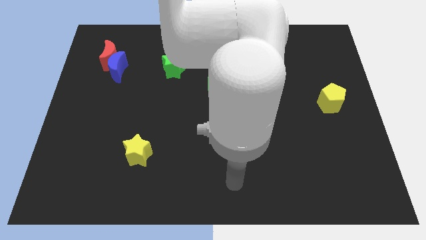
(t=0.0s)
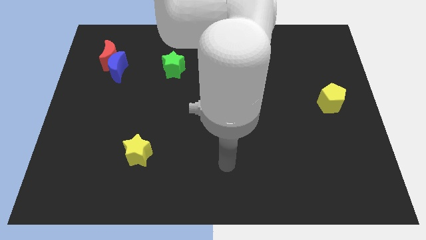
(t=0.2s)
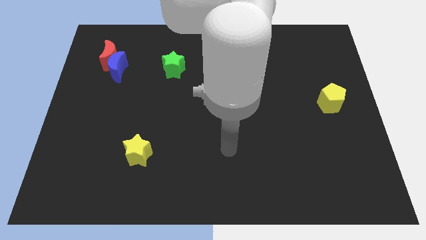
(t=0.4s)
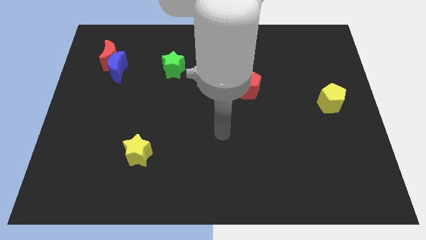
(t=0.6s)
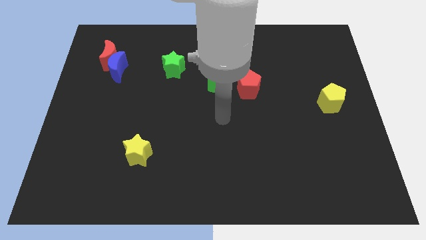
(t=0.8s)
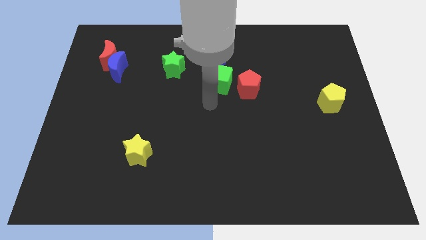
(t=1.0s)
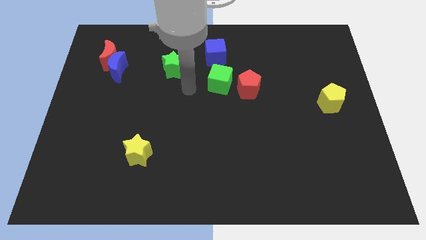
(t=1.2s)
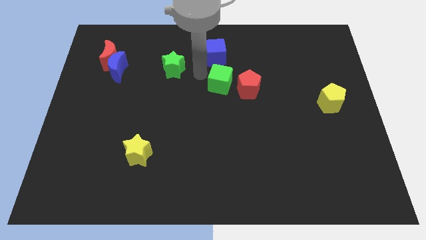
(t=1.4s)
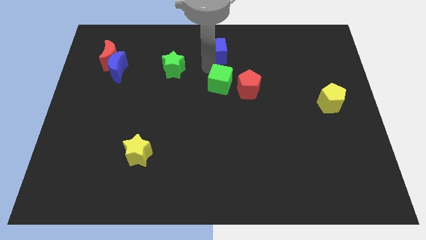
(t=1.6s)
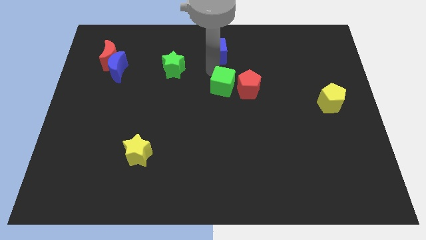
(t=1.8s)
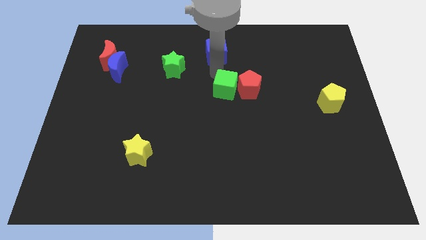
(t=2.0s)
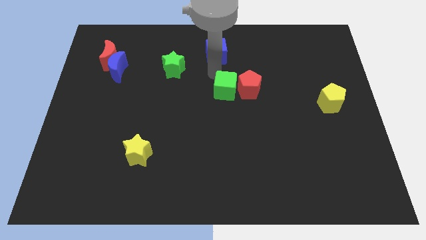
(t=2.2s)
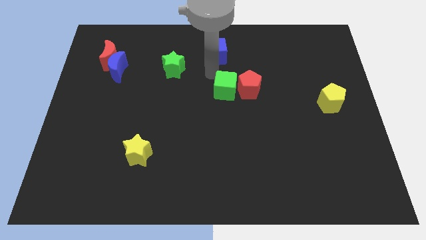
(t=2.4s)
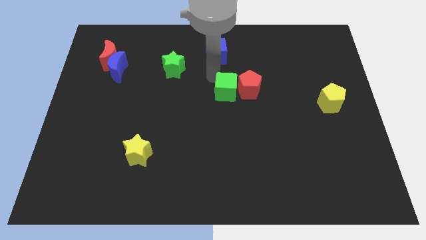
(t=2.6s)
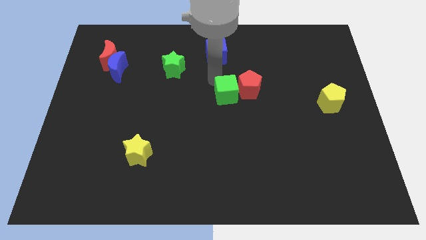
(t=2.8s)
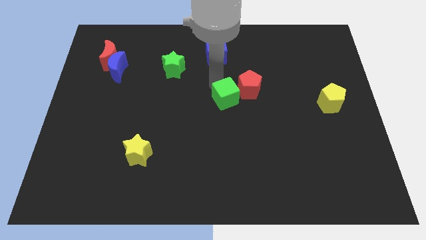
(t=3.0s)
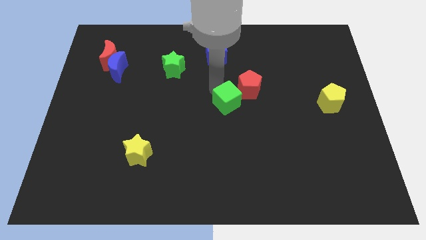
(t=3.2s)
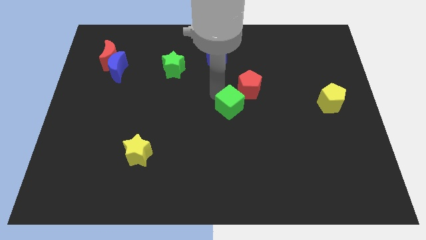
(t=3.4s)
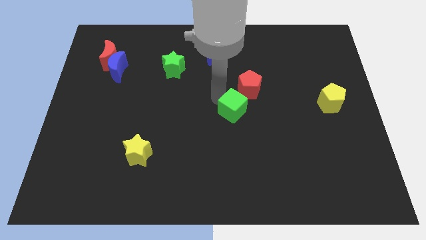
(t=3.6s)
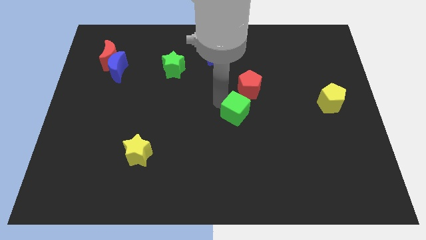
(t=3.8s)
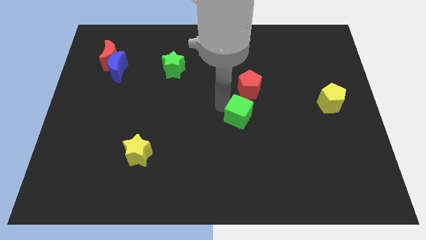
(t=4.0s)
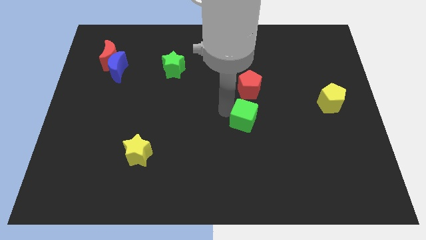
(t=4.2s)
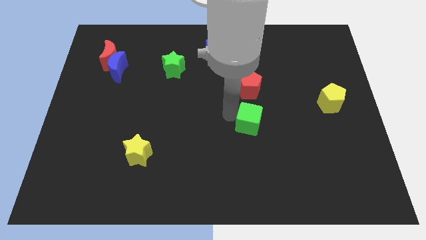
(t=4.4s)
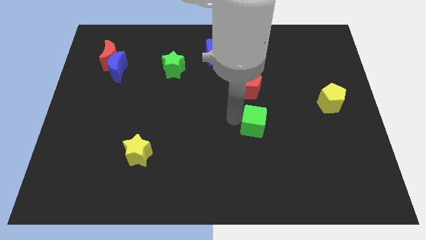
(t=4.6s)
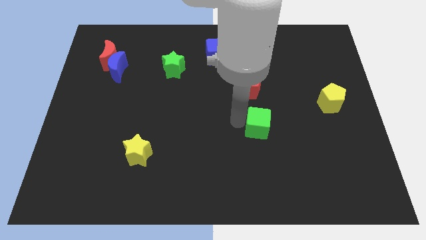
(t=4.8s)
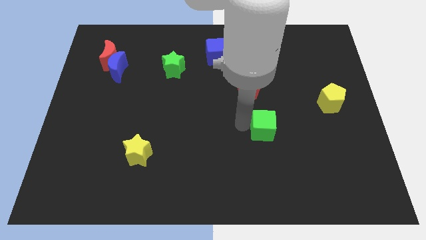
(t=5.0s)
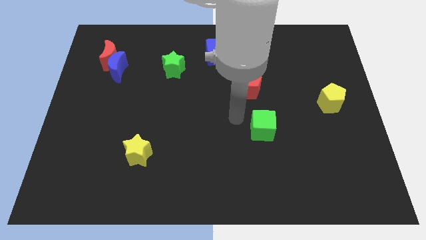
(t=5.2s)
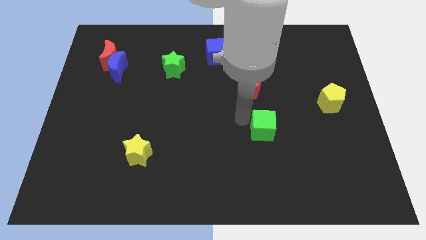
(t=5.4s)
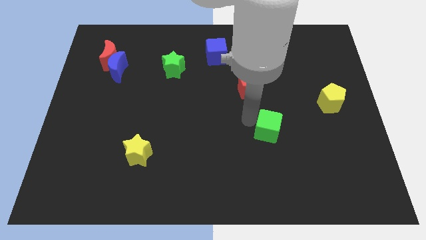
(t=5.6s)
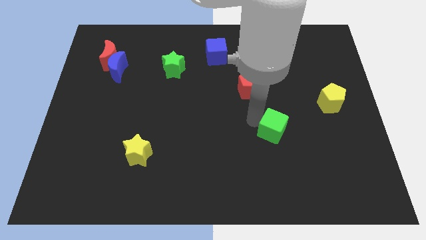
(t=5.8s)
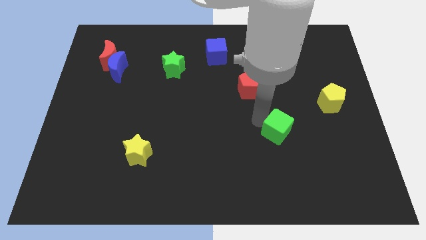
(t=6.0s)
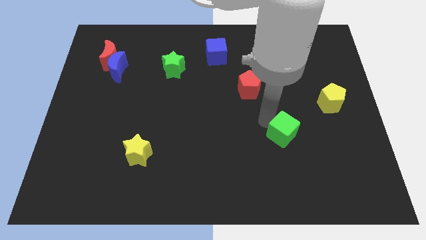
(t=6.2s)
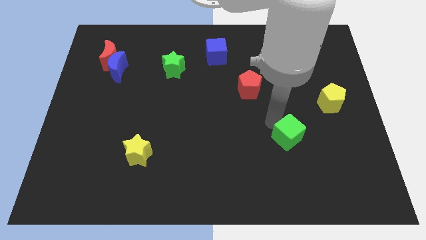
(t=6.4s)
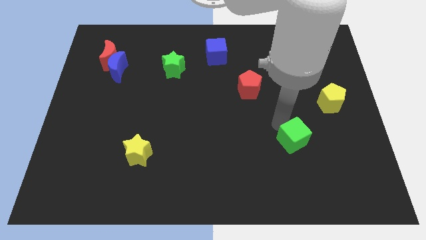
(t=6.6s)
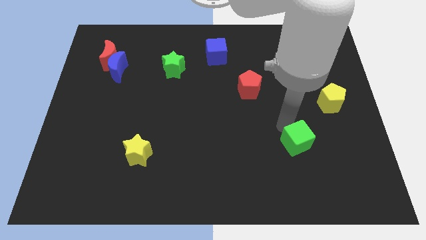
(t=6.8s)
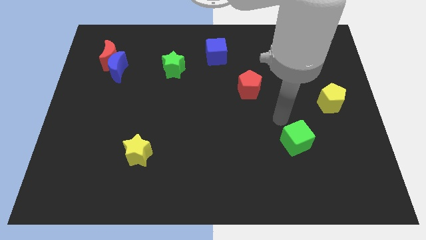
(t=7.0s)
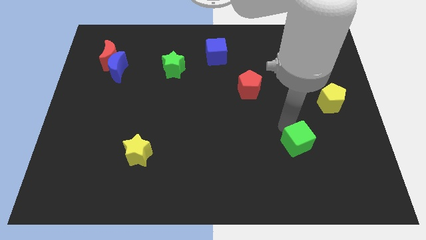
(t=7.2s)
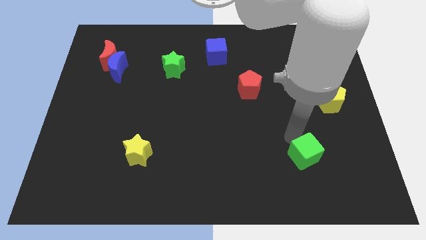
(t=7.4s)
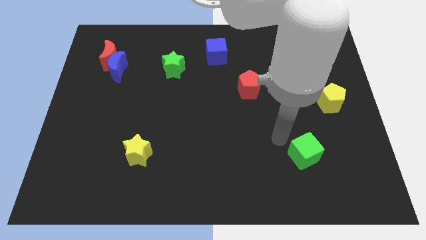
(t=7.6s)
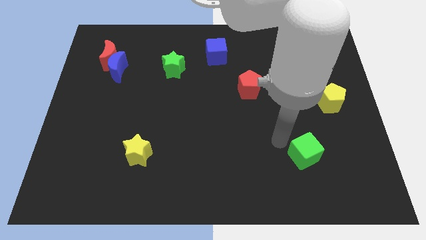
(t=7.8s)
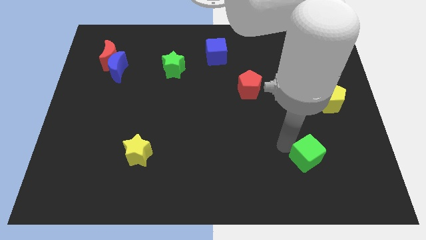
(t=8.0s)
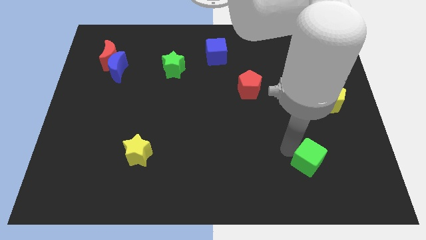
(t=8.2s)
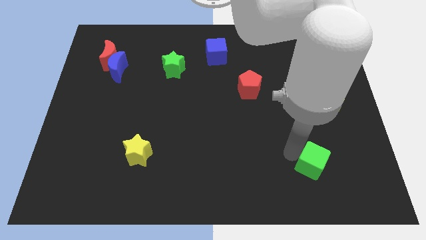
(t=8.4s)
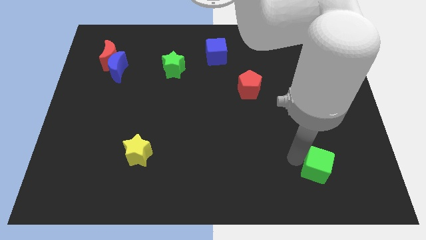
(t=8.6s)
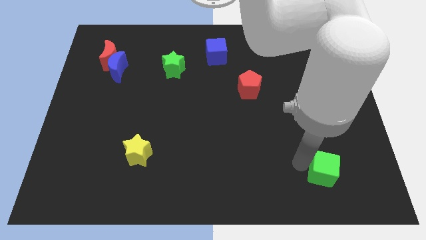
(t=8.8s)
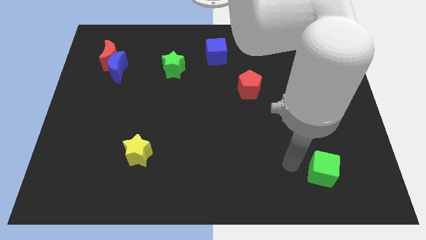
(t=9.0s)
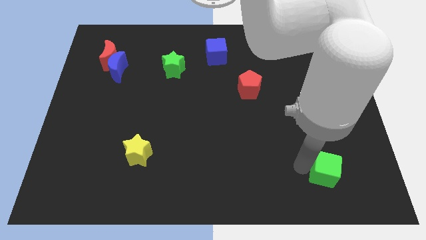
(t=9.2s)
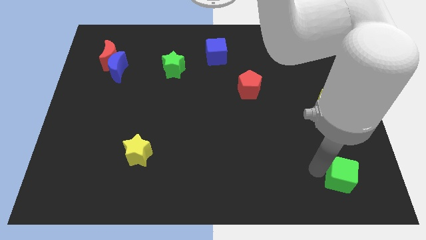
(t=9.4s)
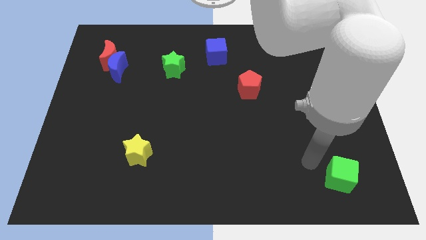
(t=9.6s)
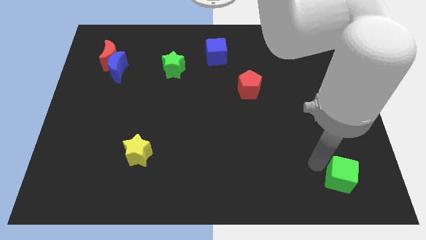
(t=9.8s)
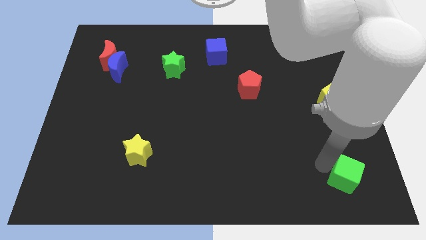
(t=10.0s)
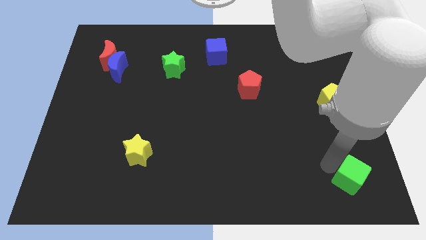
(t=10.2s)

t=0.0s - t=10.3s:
put the green cube to the bottom right

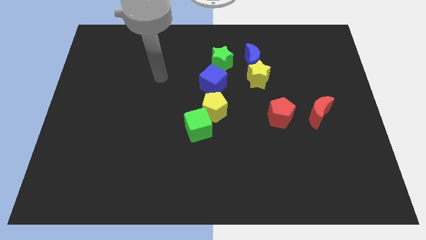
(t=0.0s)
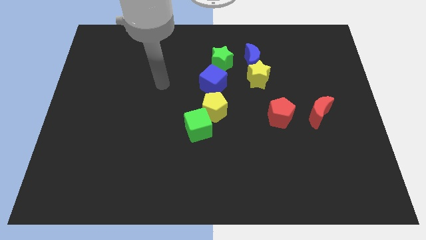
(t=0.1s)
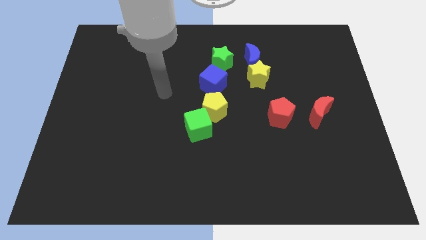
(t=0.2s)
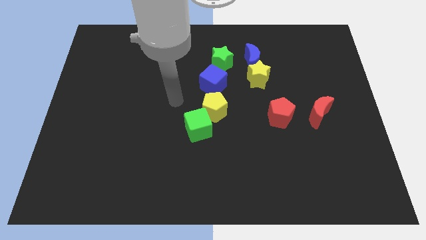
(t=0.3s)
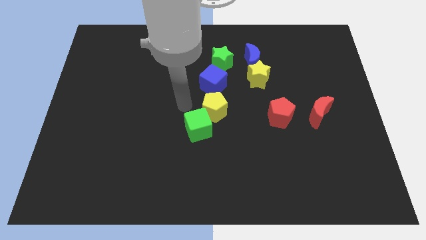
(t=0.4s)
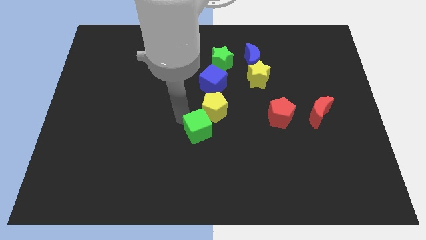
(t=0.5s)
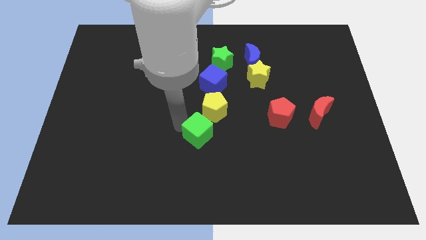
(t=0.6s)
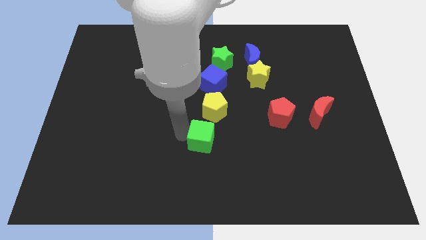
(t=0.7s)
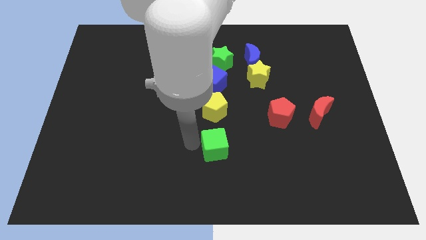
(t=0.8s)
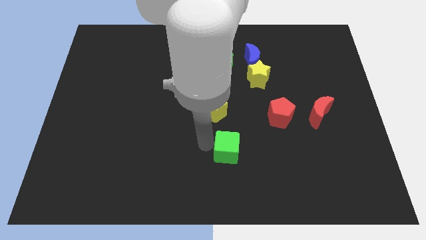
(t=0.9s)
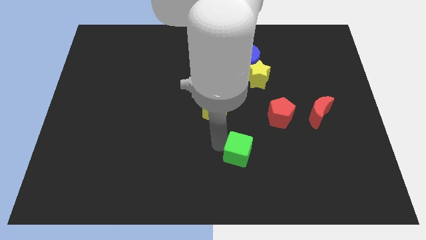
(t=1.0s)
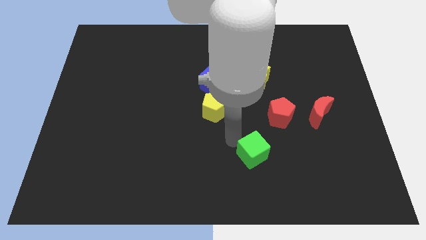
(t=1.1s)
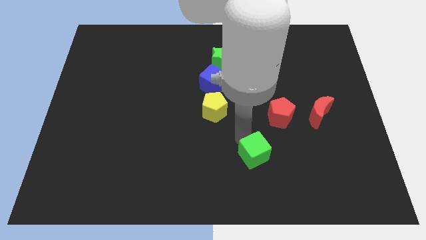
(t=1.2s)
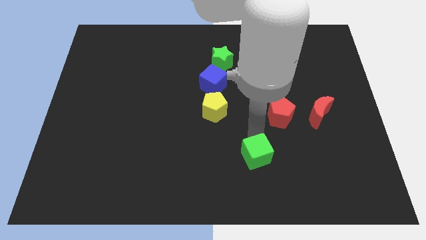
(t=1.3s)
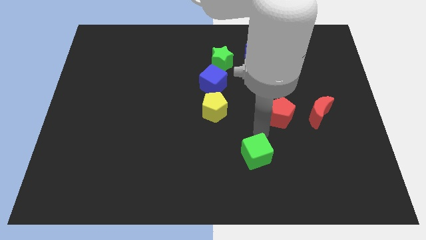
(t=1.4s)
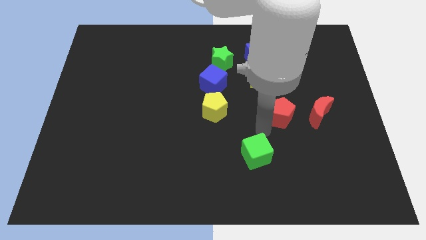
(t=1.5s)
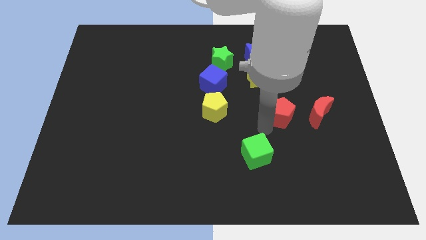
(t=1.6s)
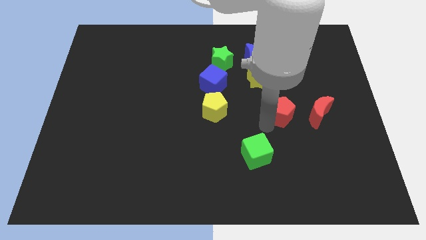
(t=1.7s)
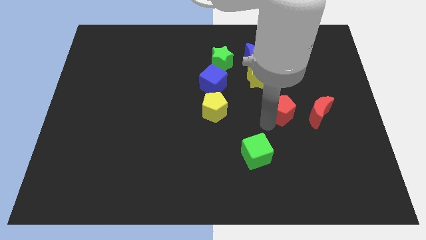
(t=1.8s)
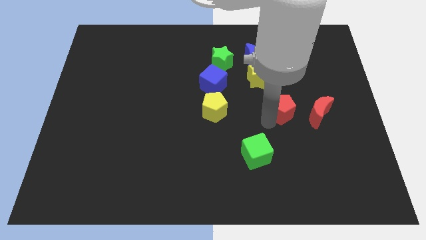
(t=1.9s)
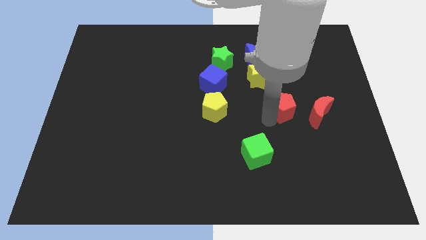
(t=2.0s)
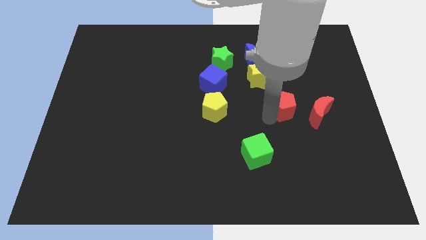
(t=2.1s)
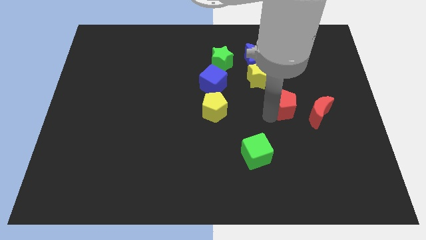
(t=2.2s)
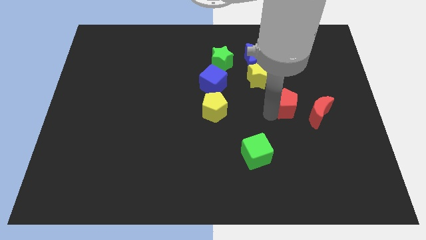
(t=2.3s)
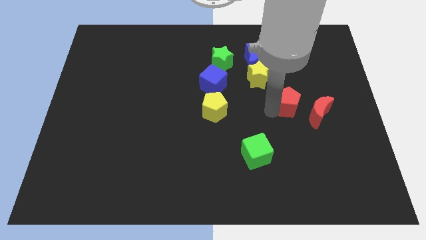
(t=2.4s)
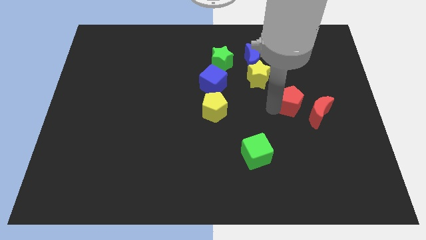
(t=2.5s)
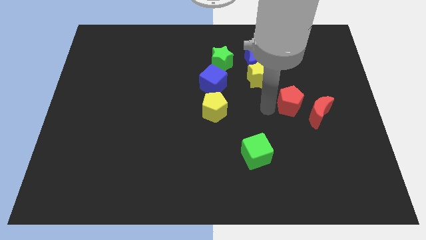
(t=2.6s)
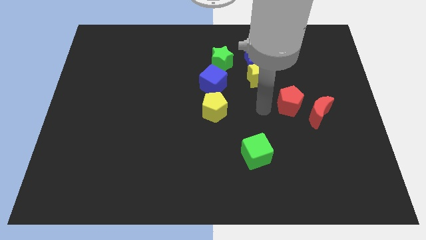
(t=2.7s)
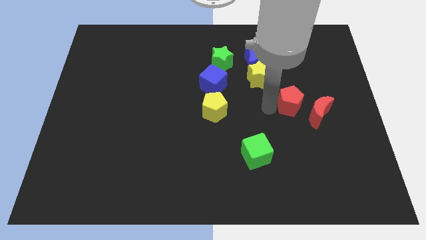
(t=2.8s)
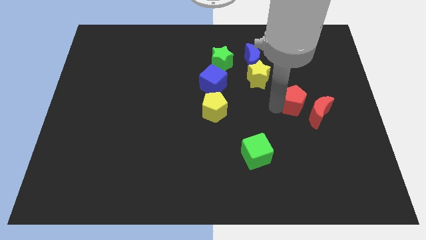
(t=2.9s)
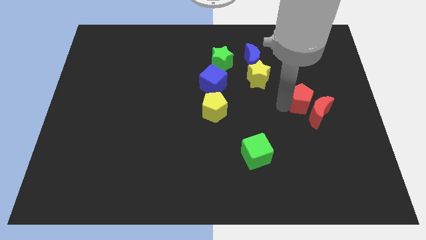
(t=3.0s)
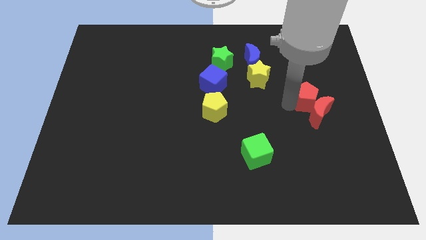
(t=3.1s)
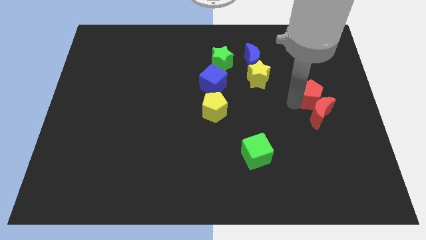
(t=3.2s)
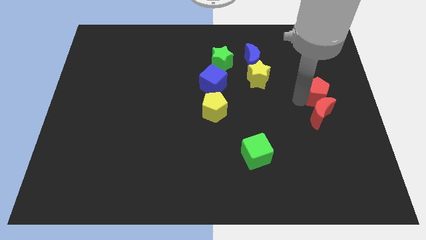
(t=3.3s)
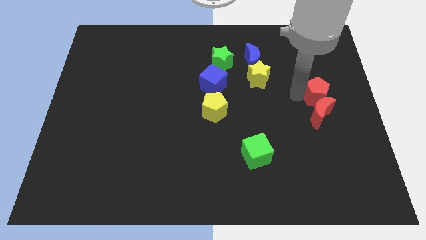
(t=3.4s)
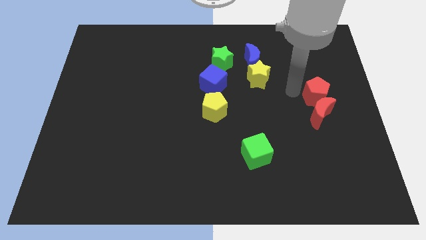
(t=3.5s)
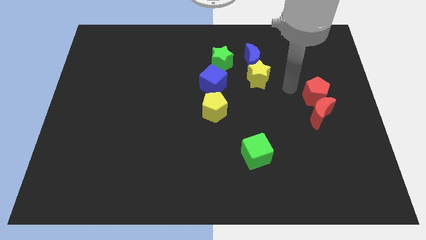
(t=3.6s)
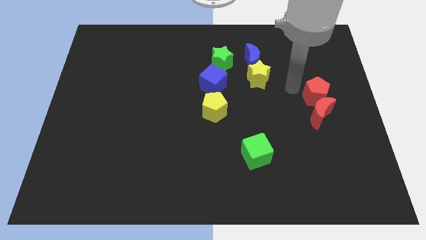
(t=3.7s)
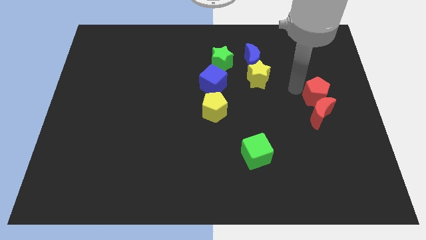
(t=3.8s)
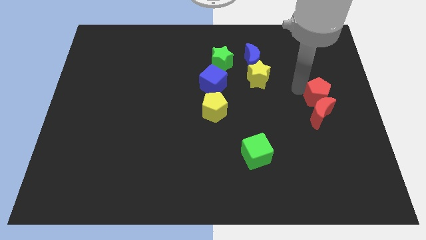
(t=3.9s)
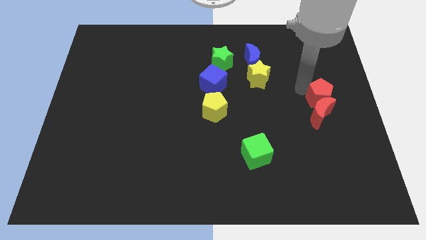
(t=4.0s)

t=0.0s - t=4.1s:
put the red pentagon to the center right
